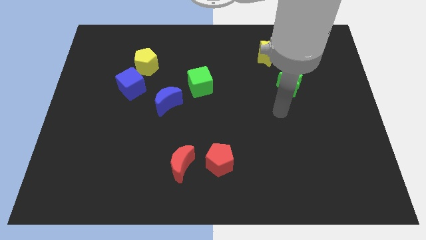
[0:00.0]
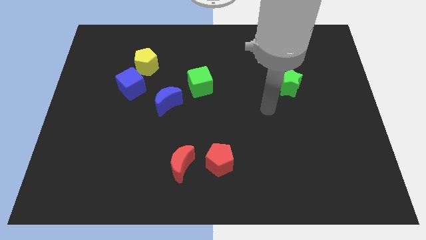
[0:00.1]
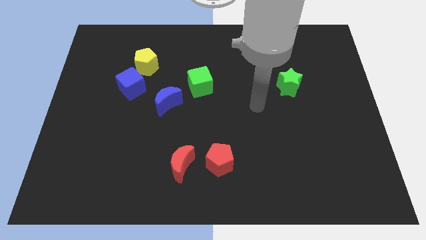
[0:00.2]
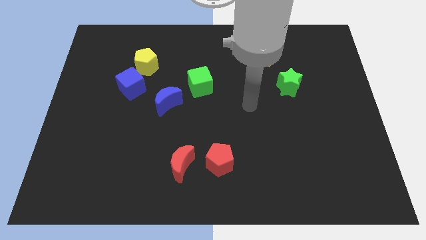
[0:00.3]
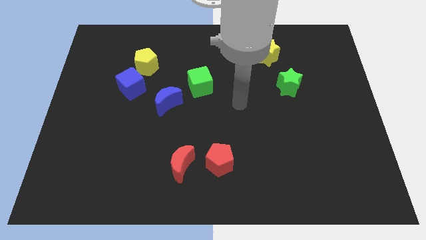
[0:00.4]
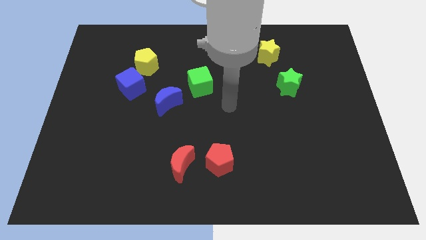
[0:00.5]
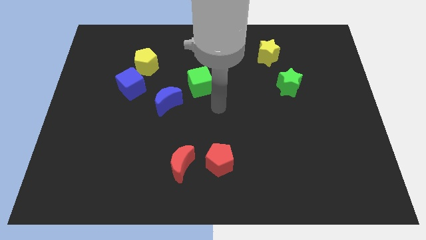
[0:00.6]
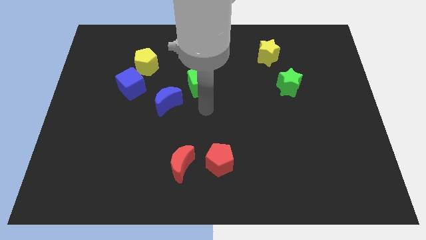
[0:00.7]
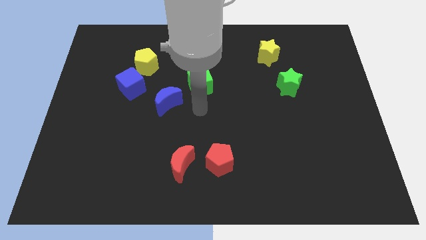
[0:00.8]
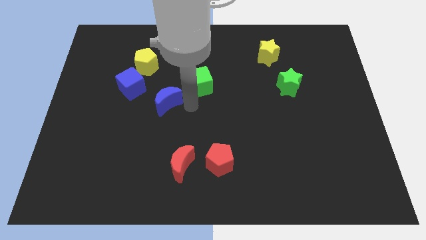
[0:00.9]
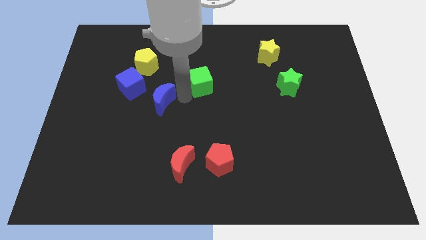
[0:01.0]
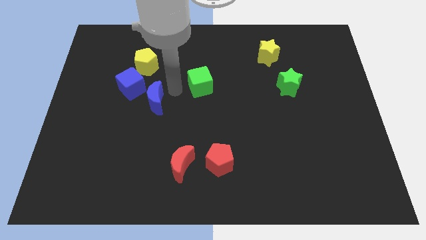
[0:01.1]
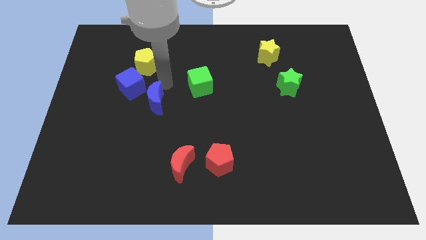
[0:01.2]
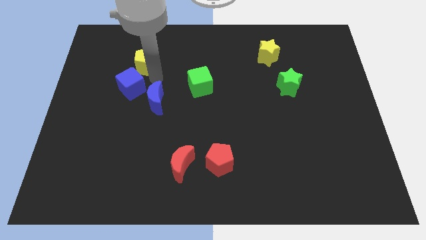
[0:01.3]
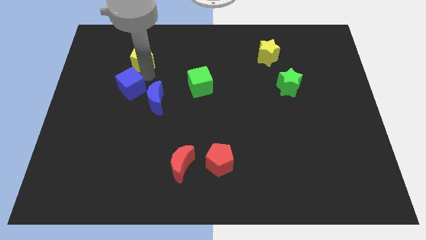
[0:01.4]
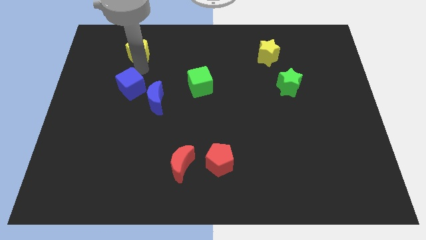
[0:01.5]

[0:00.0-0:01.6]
move the blue cube away from the yellow pentagon

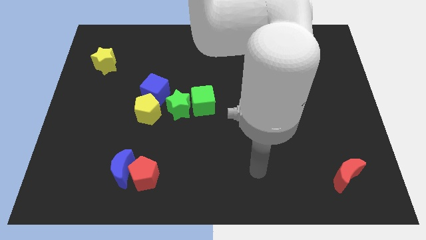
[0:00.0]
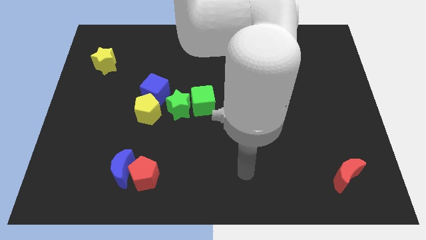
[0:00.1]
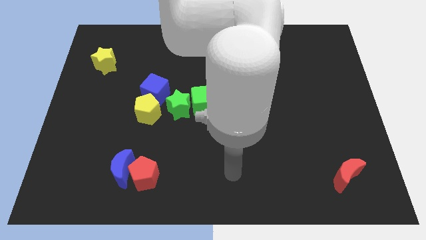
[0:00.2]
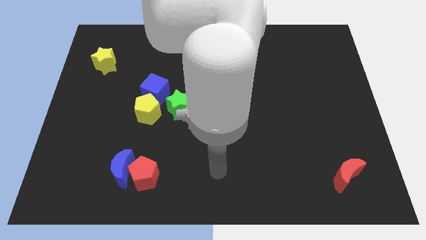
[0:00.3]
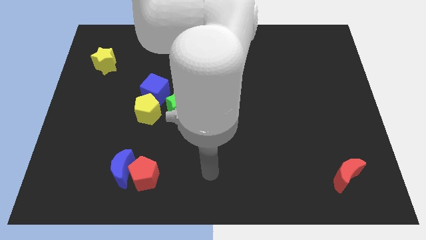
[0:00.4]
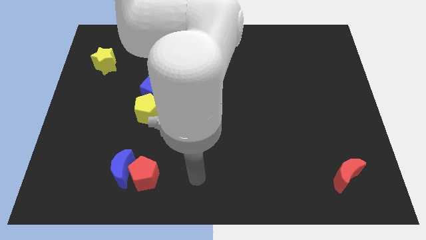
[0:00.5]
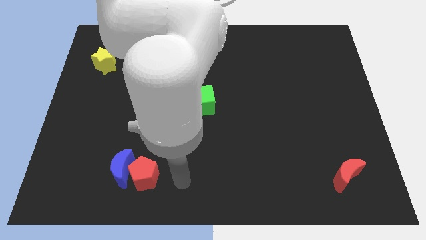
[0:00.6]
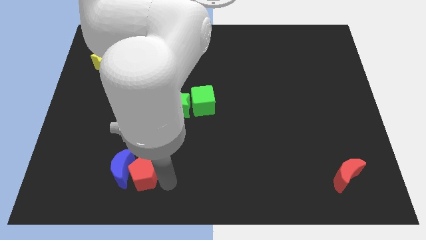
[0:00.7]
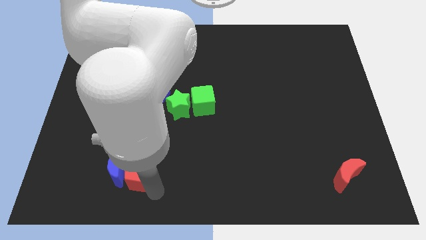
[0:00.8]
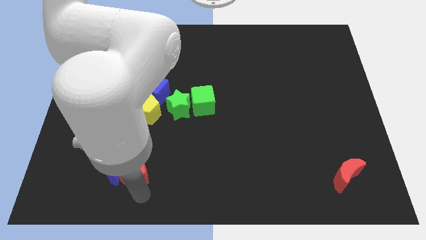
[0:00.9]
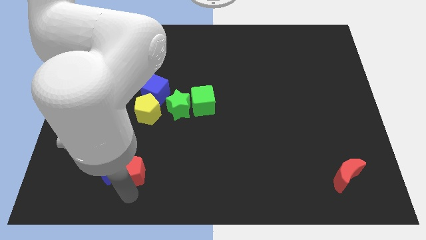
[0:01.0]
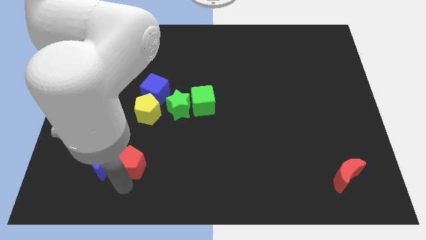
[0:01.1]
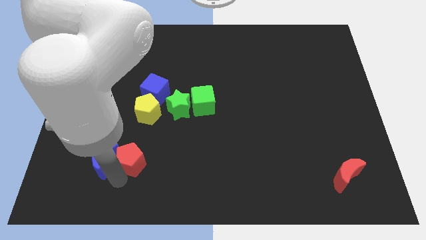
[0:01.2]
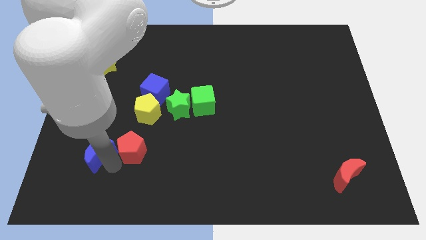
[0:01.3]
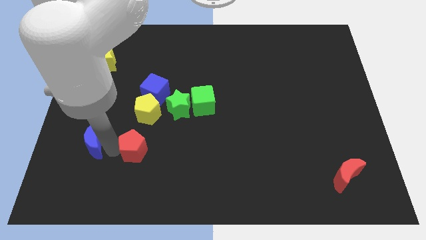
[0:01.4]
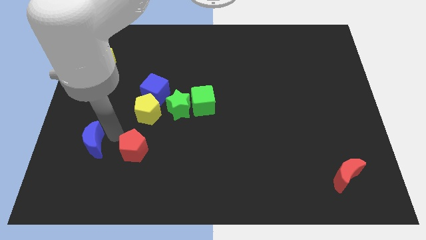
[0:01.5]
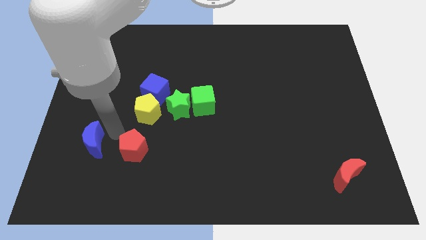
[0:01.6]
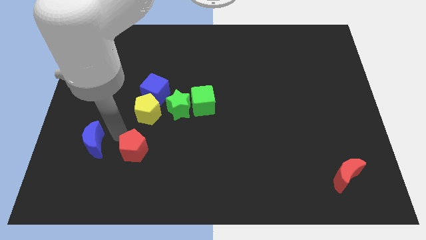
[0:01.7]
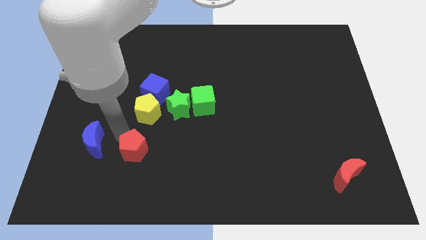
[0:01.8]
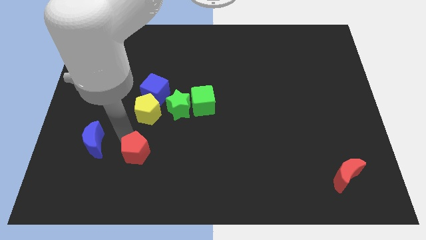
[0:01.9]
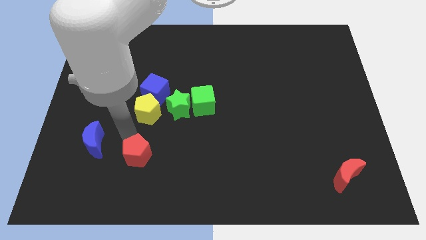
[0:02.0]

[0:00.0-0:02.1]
move the red pentagon away from the blue moon

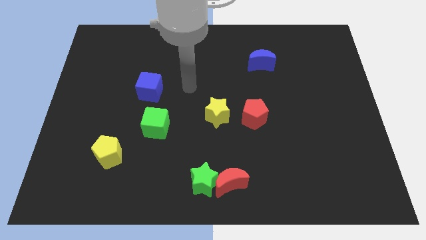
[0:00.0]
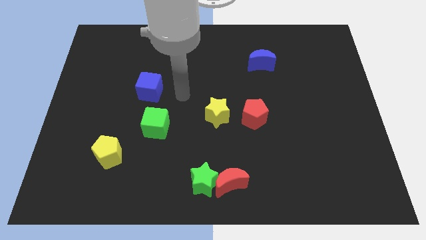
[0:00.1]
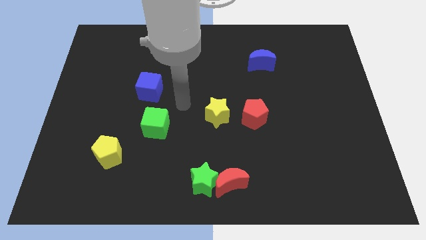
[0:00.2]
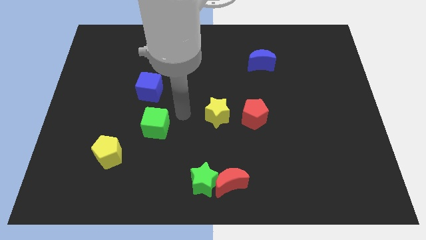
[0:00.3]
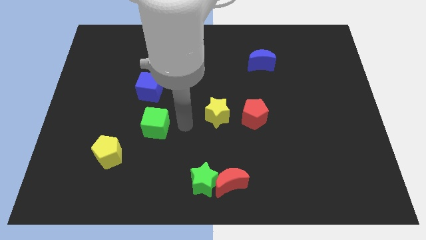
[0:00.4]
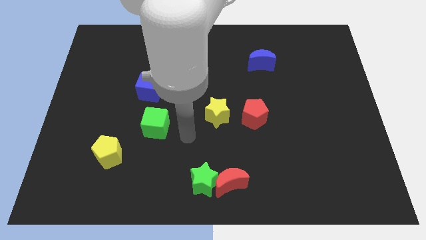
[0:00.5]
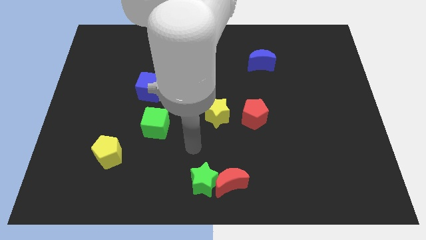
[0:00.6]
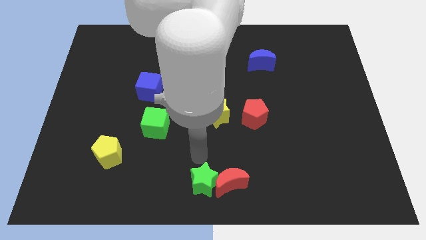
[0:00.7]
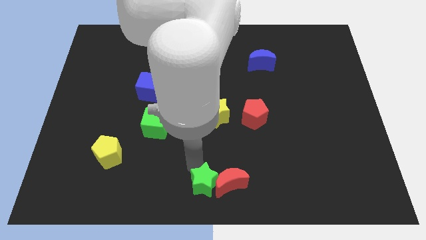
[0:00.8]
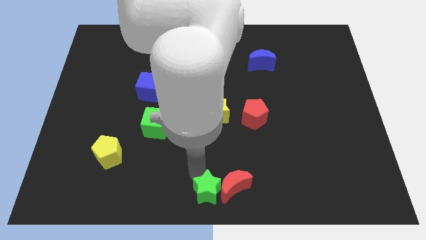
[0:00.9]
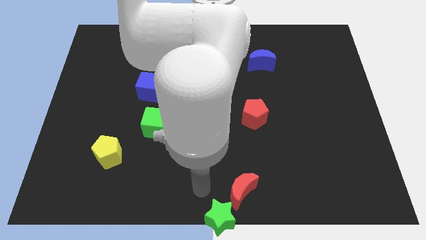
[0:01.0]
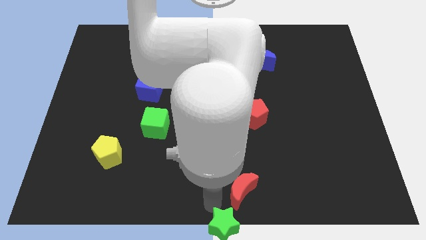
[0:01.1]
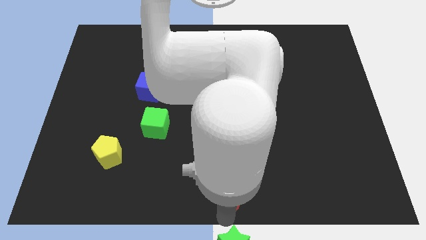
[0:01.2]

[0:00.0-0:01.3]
pull the red moon apart from the green star

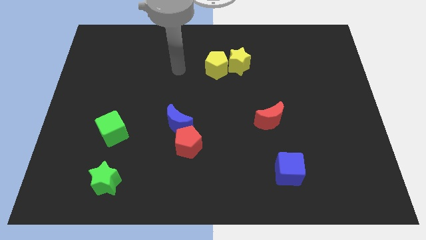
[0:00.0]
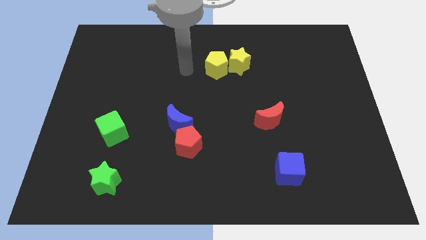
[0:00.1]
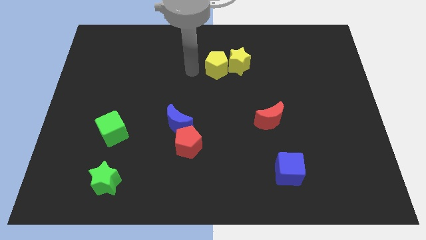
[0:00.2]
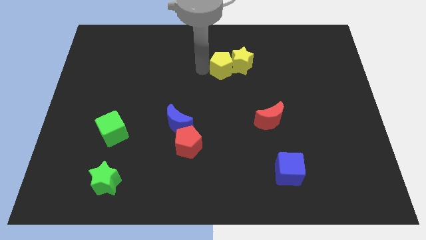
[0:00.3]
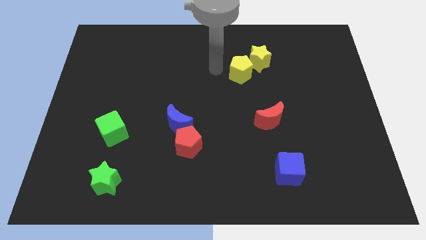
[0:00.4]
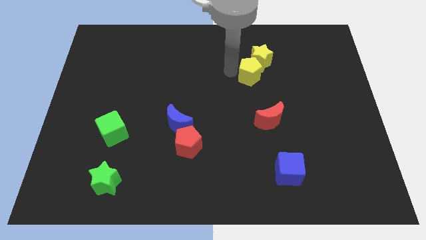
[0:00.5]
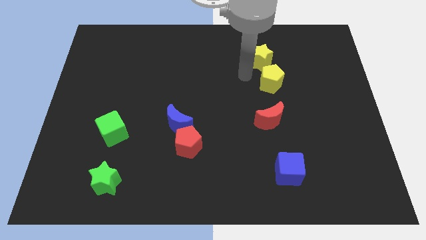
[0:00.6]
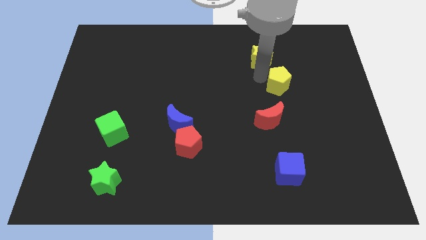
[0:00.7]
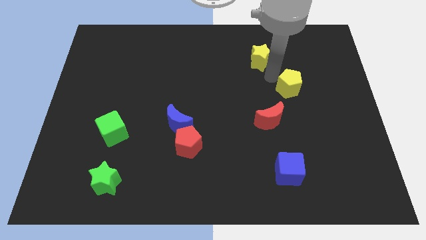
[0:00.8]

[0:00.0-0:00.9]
pull the yellow star apart from the yellow pentagon

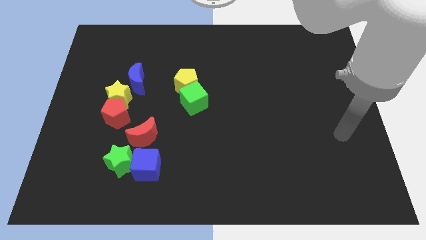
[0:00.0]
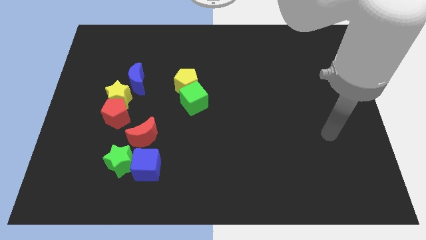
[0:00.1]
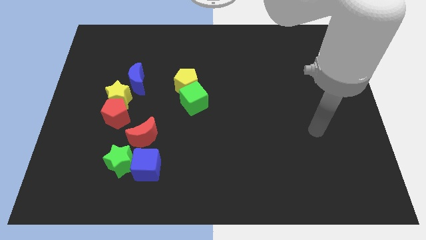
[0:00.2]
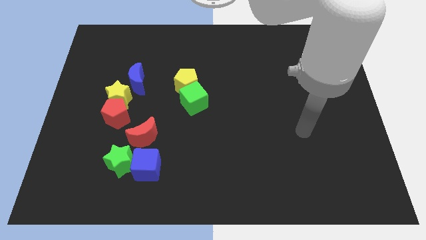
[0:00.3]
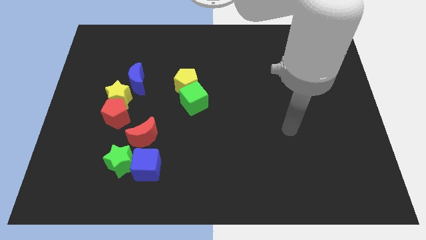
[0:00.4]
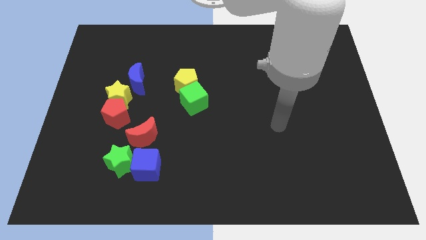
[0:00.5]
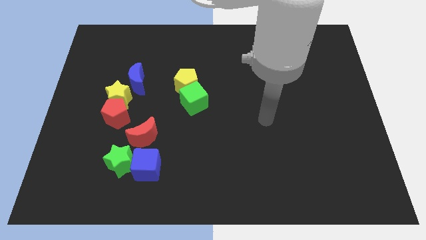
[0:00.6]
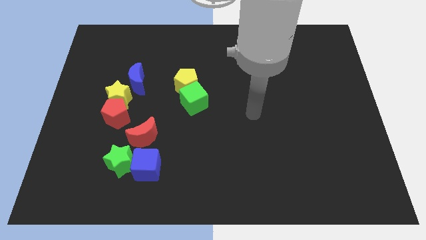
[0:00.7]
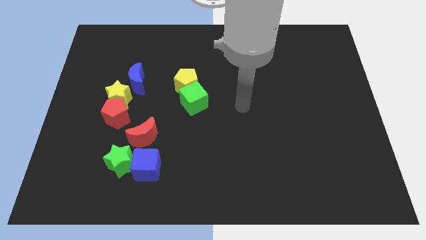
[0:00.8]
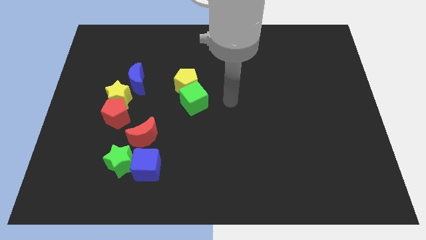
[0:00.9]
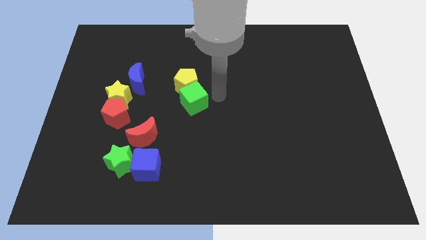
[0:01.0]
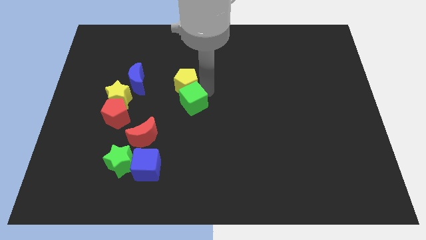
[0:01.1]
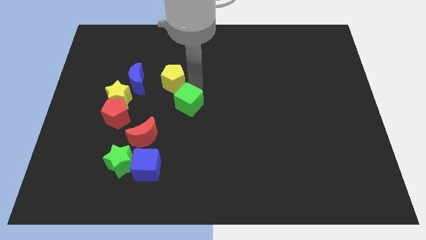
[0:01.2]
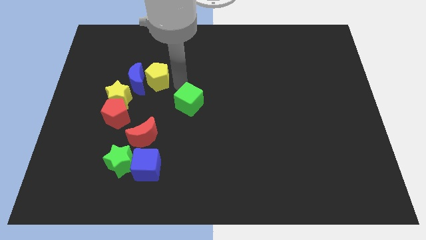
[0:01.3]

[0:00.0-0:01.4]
separate the green cube from the yellow pentagon

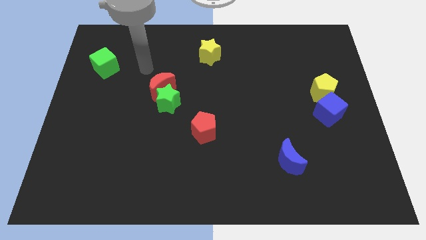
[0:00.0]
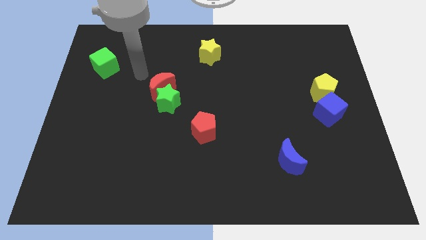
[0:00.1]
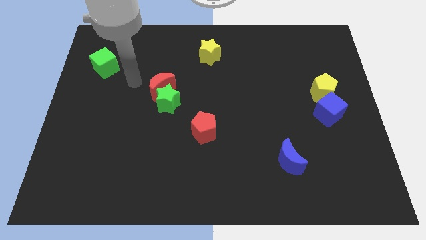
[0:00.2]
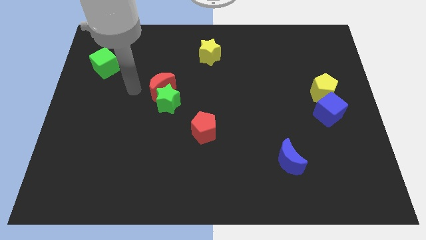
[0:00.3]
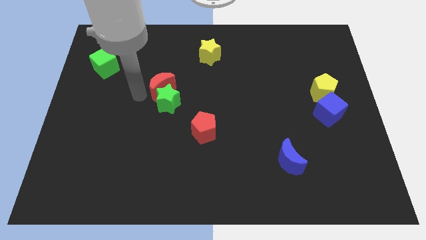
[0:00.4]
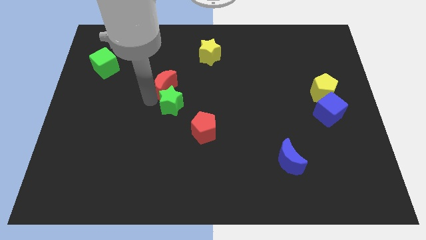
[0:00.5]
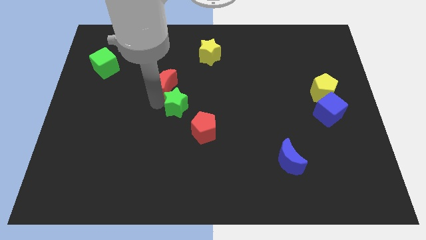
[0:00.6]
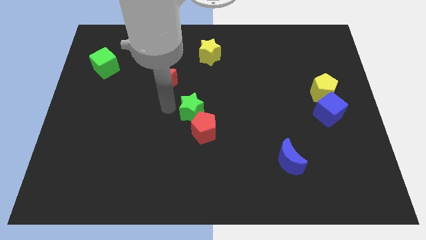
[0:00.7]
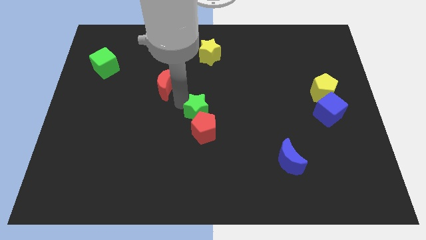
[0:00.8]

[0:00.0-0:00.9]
separate the red moon from the green star

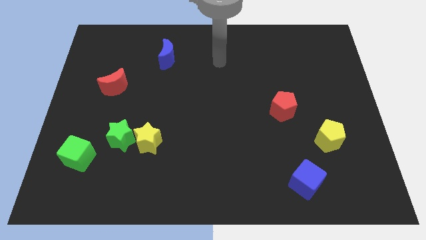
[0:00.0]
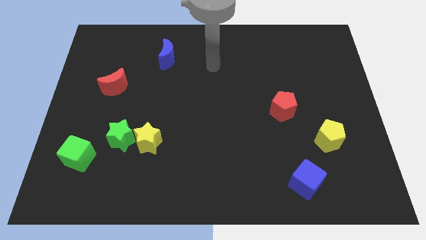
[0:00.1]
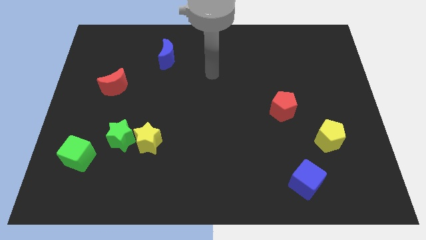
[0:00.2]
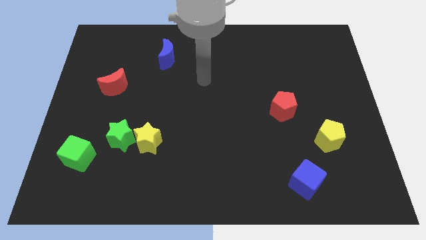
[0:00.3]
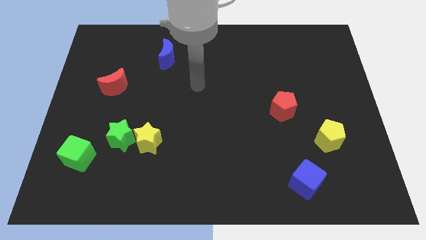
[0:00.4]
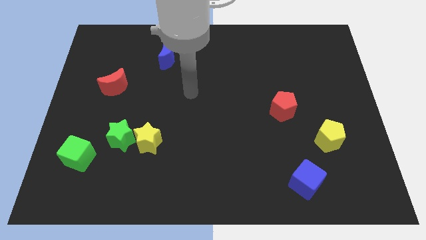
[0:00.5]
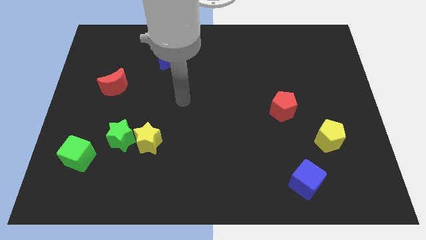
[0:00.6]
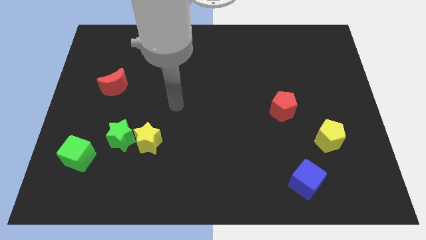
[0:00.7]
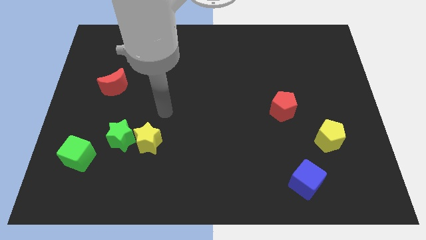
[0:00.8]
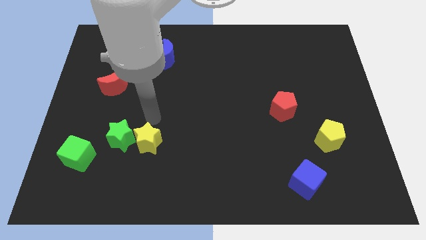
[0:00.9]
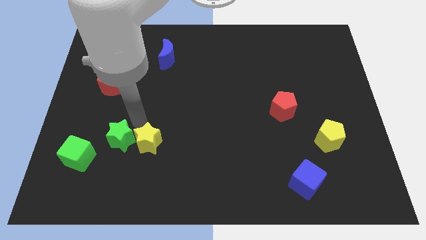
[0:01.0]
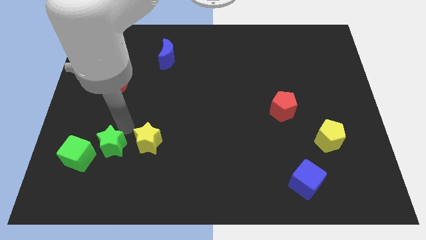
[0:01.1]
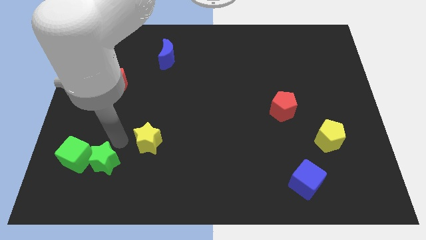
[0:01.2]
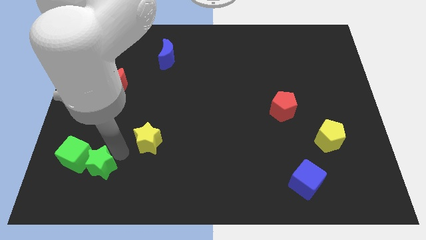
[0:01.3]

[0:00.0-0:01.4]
pull the yellow star apart from the green star
